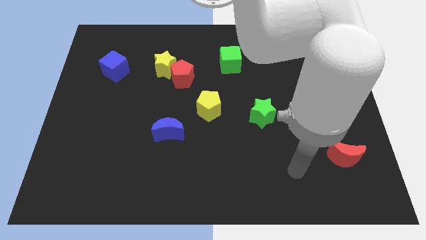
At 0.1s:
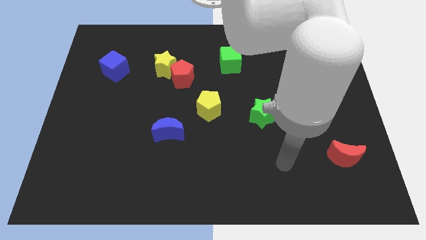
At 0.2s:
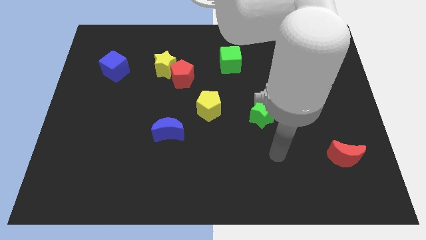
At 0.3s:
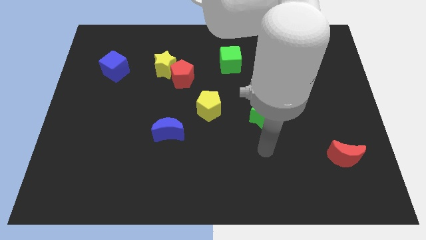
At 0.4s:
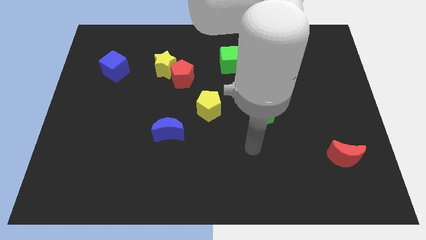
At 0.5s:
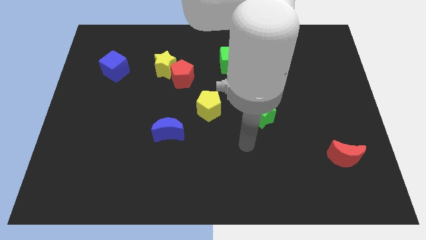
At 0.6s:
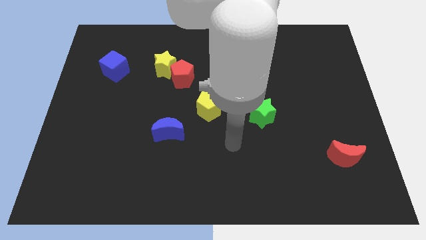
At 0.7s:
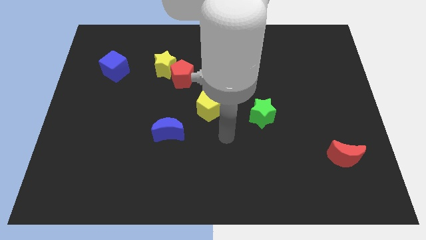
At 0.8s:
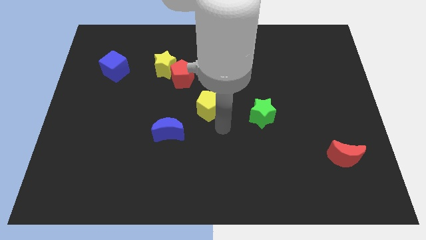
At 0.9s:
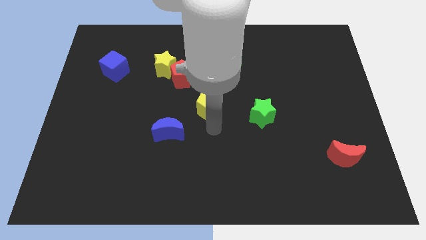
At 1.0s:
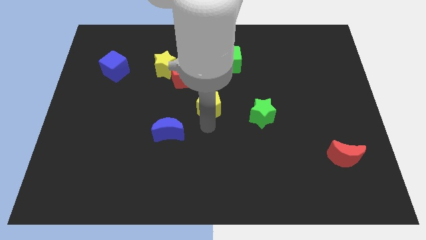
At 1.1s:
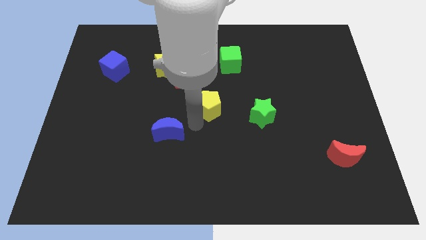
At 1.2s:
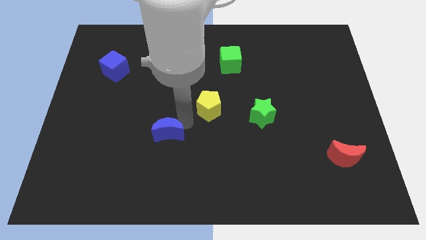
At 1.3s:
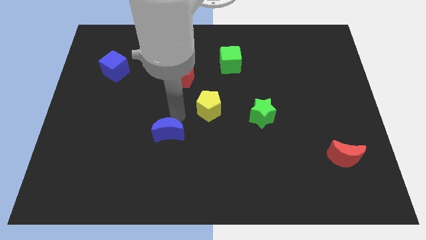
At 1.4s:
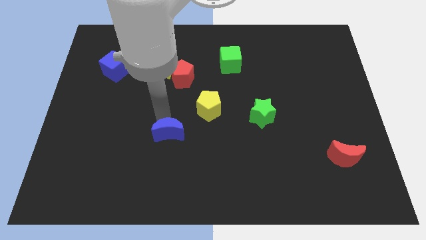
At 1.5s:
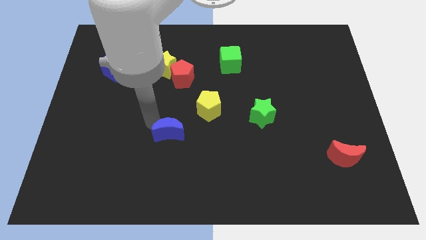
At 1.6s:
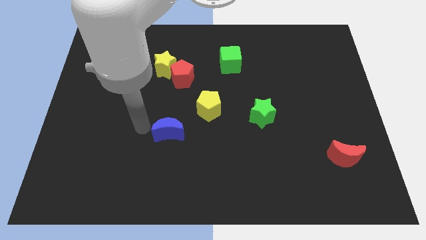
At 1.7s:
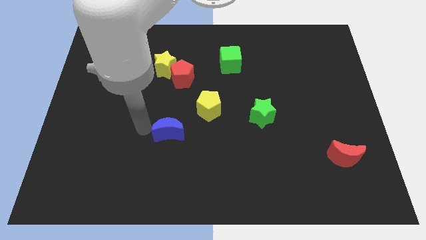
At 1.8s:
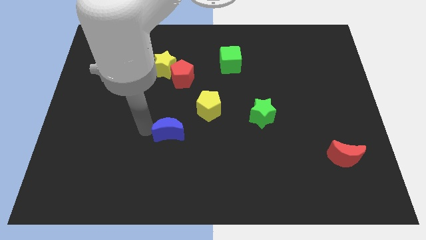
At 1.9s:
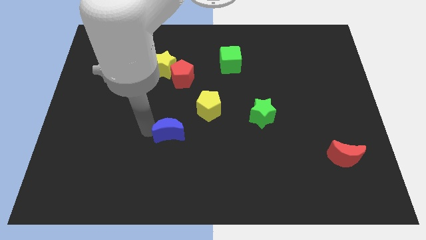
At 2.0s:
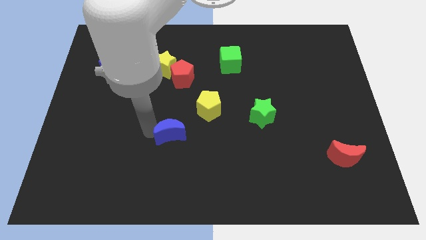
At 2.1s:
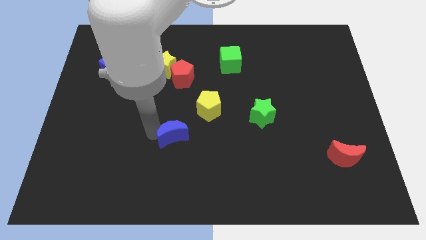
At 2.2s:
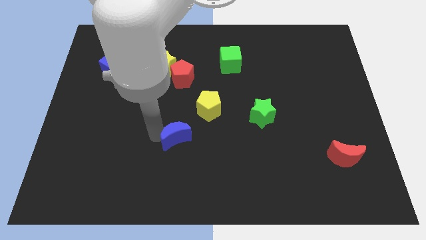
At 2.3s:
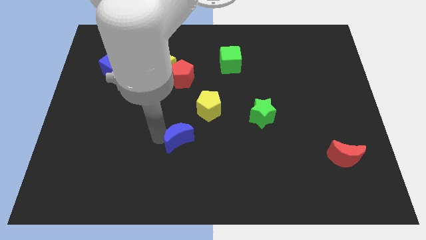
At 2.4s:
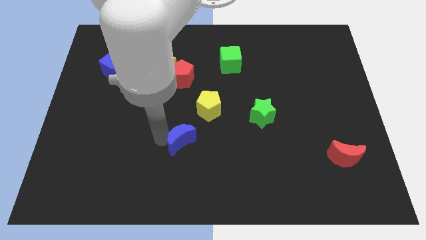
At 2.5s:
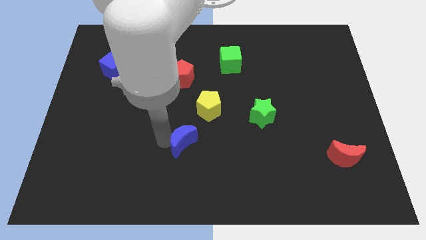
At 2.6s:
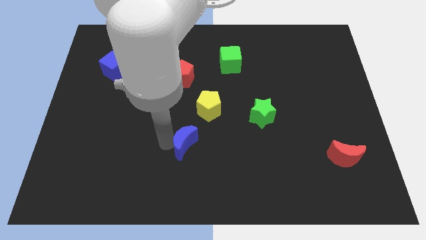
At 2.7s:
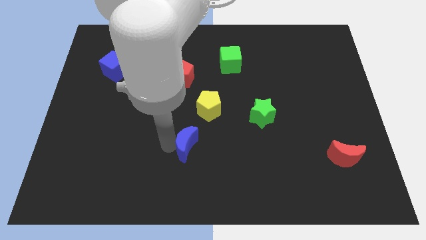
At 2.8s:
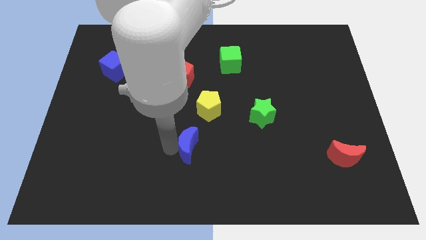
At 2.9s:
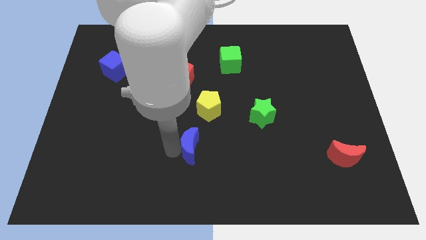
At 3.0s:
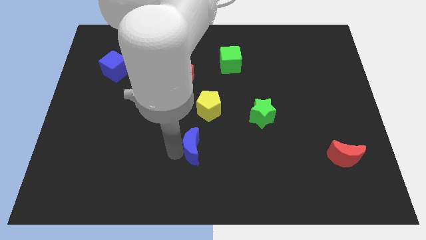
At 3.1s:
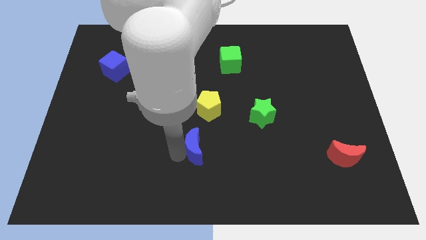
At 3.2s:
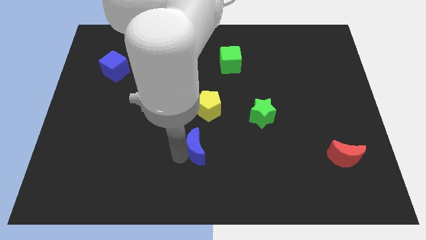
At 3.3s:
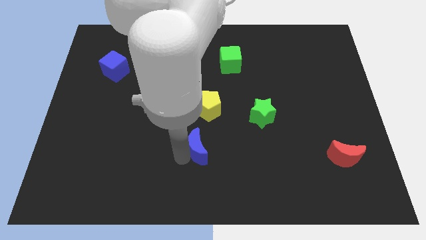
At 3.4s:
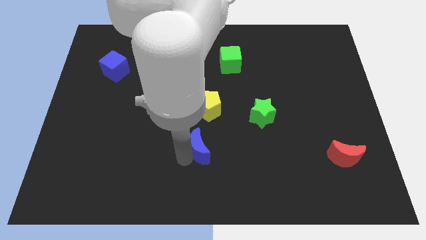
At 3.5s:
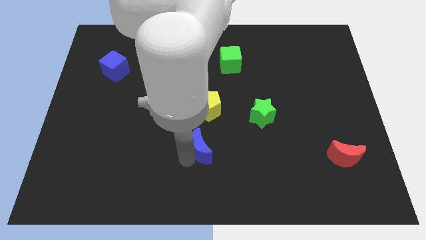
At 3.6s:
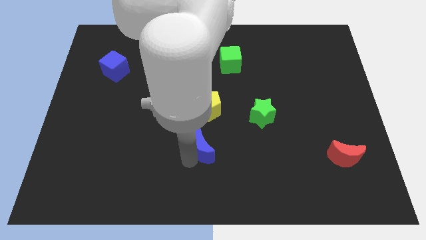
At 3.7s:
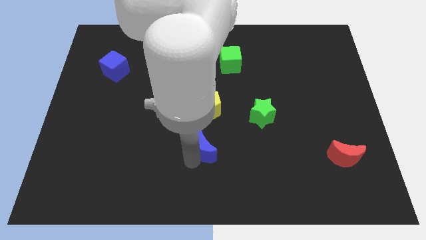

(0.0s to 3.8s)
push the blue moon a little bit right

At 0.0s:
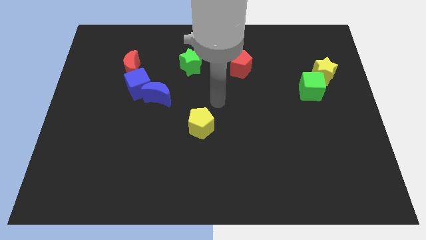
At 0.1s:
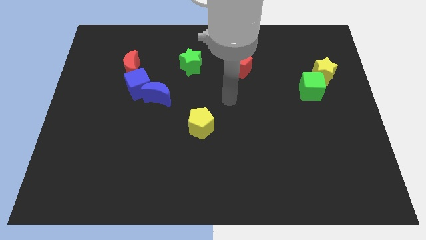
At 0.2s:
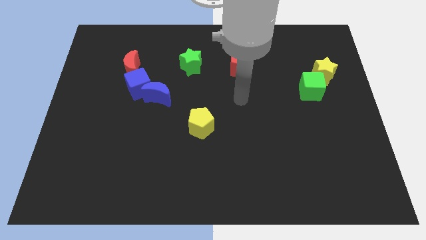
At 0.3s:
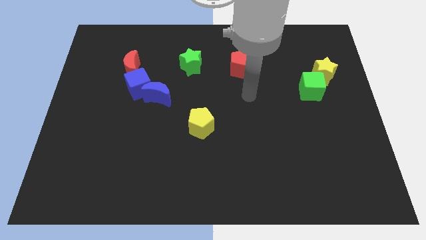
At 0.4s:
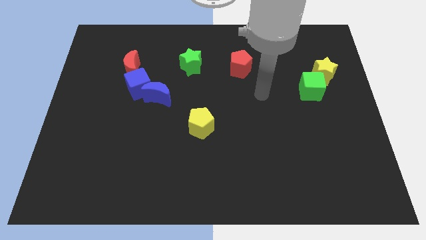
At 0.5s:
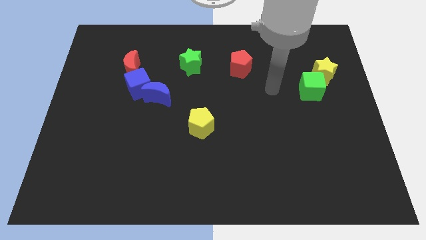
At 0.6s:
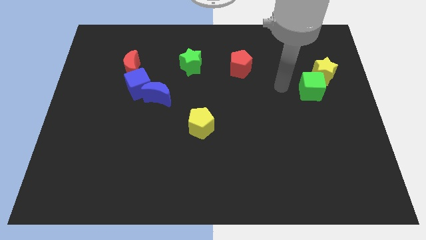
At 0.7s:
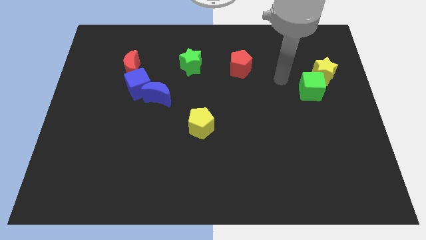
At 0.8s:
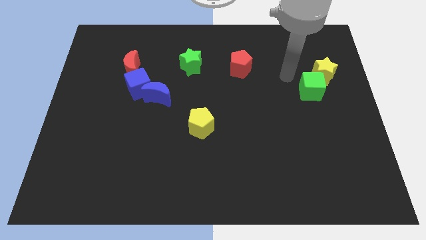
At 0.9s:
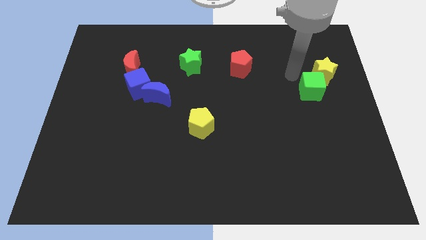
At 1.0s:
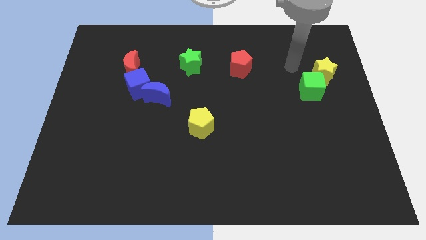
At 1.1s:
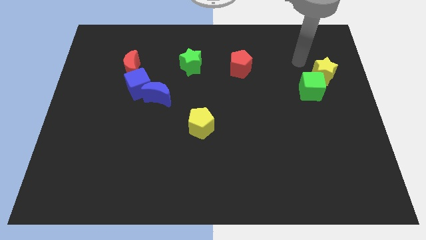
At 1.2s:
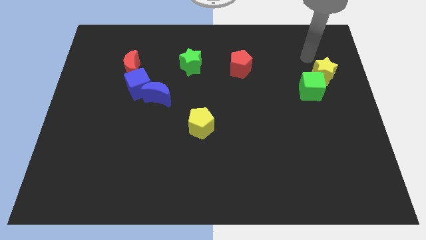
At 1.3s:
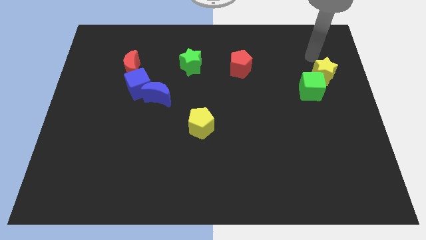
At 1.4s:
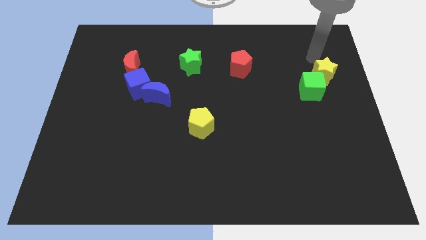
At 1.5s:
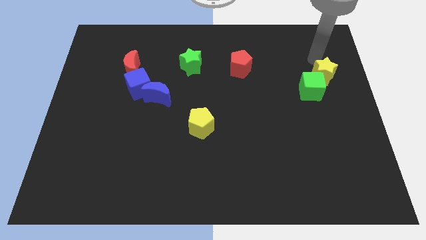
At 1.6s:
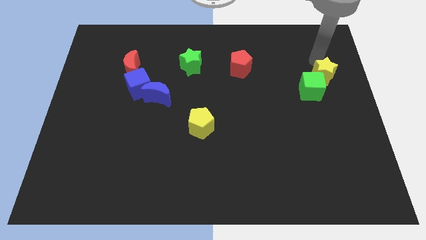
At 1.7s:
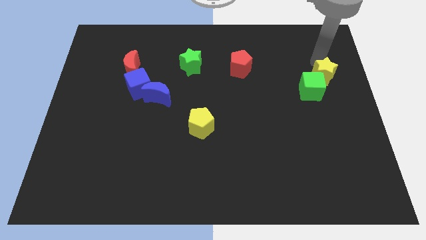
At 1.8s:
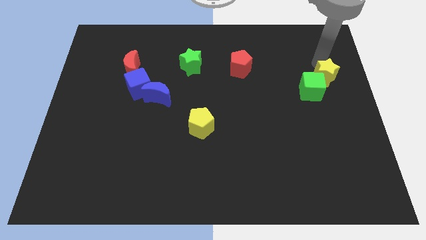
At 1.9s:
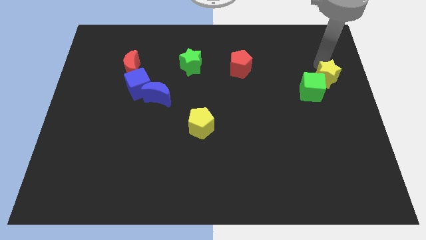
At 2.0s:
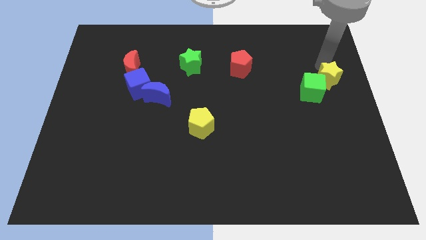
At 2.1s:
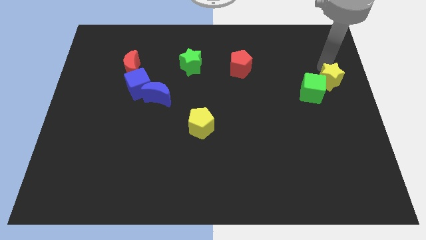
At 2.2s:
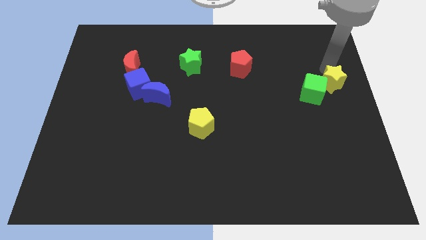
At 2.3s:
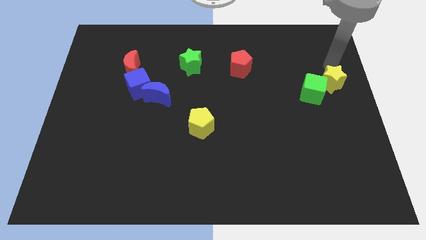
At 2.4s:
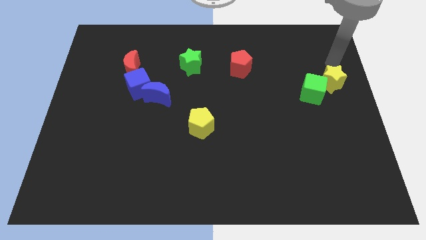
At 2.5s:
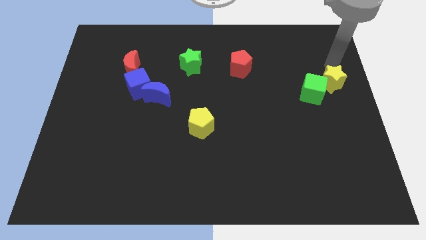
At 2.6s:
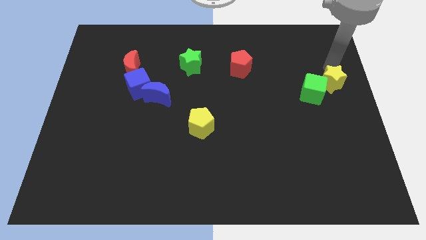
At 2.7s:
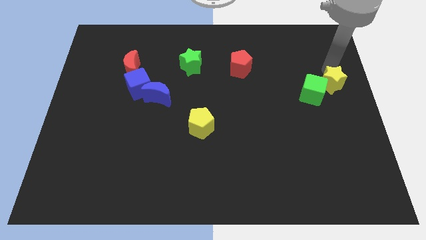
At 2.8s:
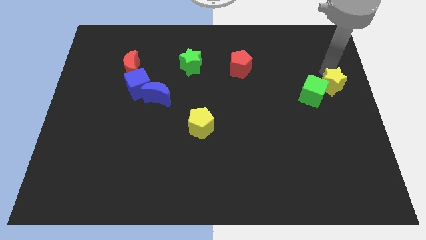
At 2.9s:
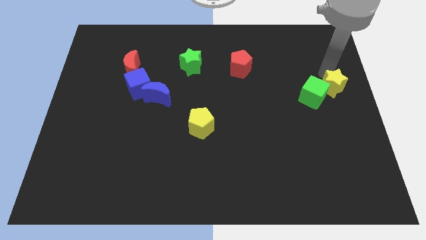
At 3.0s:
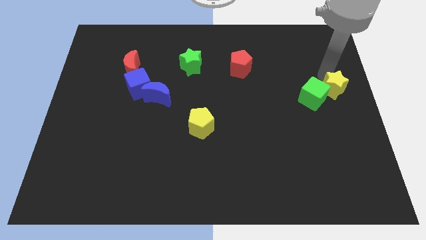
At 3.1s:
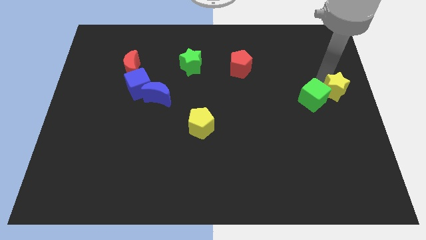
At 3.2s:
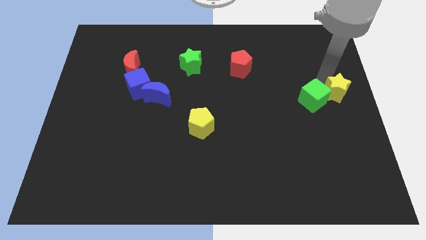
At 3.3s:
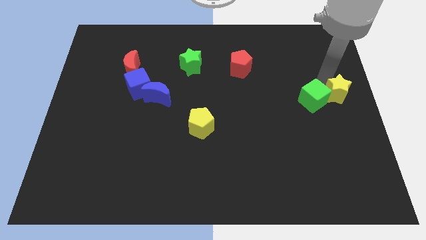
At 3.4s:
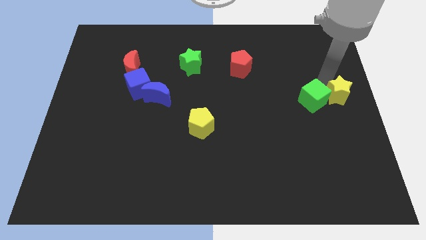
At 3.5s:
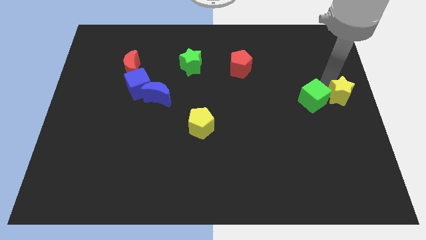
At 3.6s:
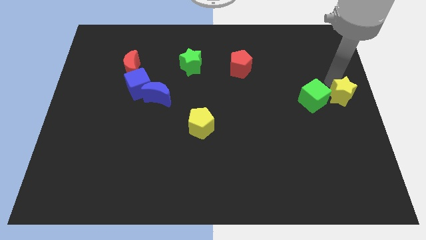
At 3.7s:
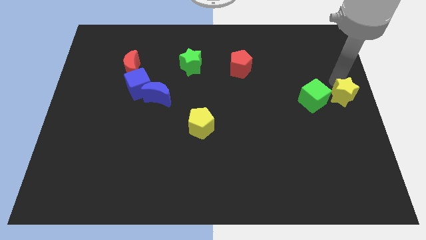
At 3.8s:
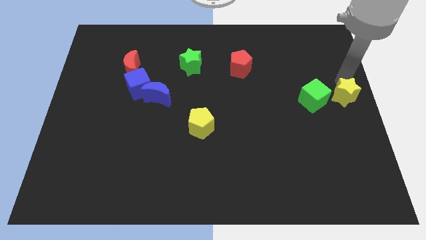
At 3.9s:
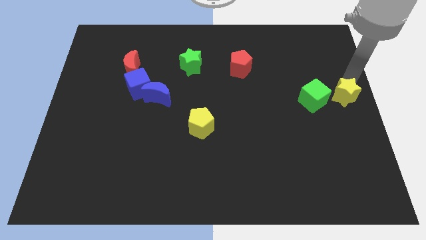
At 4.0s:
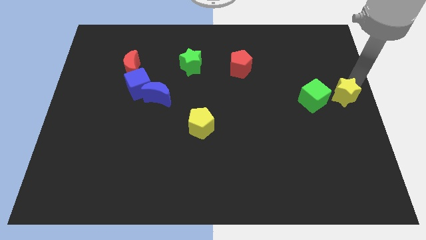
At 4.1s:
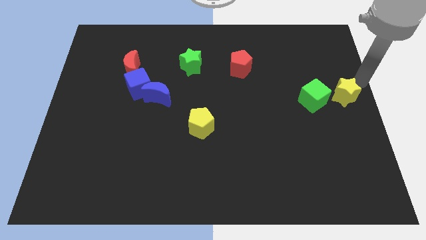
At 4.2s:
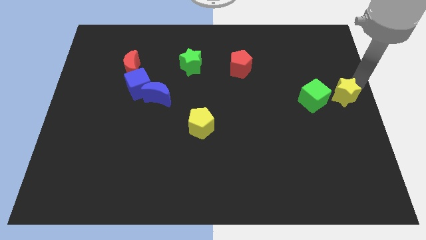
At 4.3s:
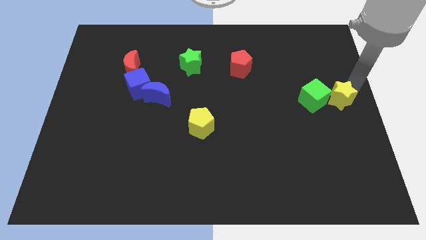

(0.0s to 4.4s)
push the yellow star downwards a bit

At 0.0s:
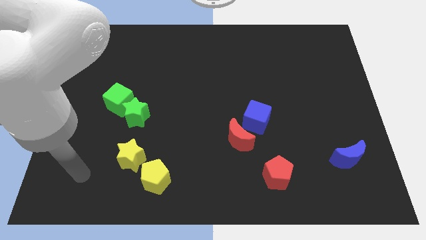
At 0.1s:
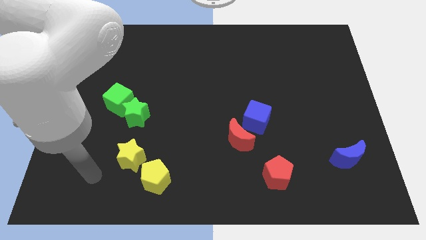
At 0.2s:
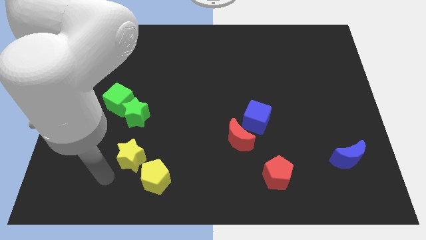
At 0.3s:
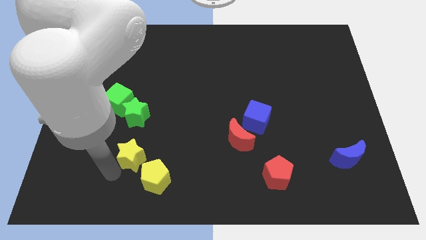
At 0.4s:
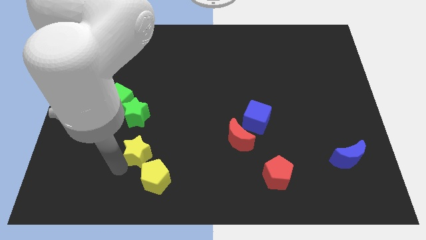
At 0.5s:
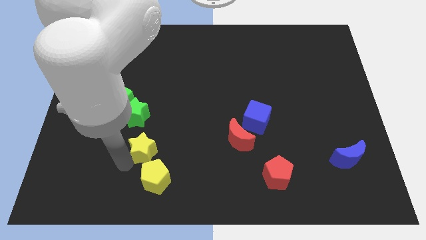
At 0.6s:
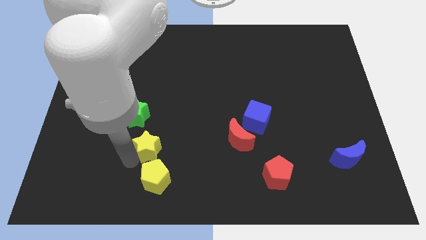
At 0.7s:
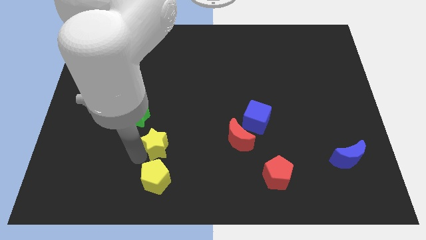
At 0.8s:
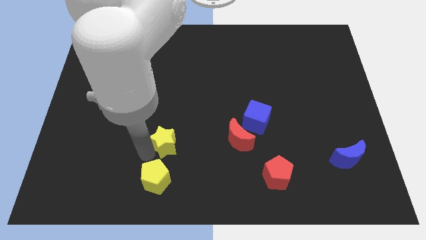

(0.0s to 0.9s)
slightly move the yellow star up and then right
